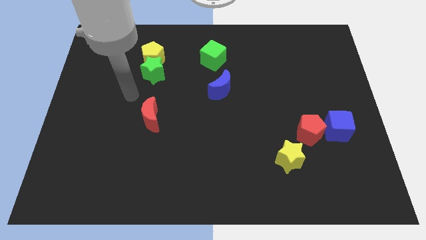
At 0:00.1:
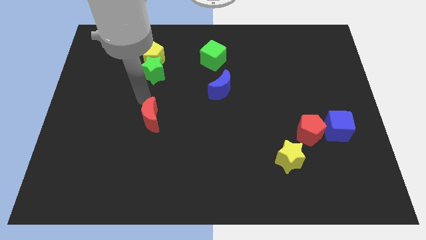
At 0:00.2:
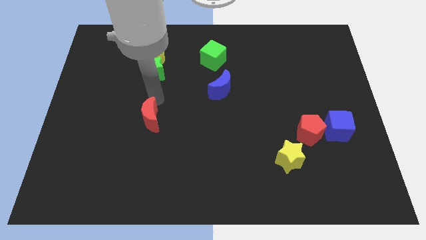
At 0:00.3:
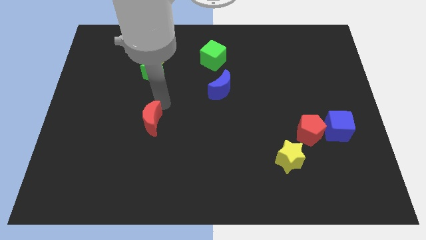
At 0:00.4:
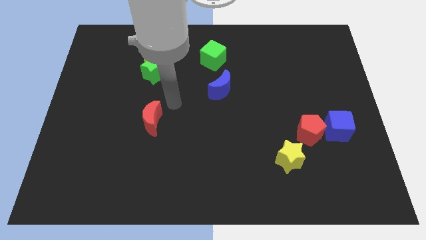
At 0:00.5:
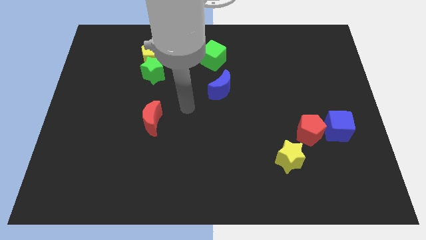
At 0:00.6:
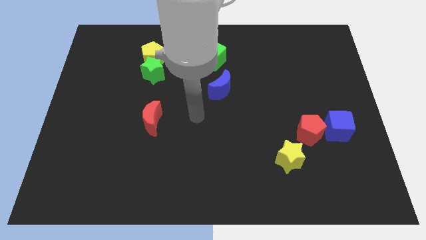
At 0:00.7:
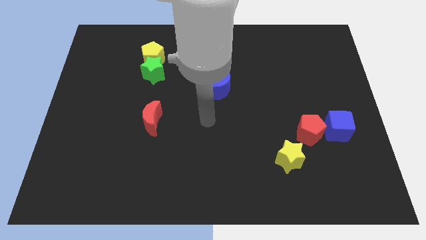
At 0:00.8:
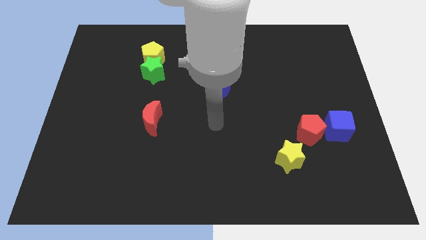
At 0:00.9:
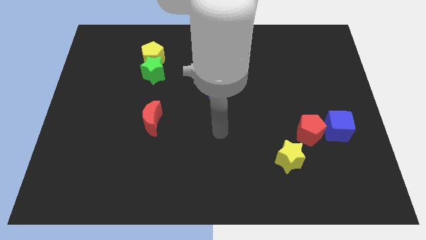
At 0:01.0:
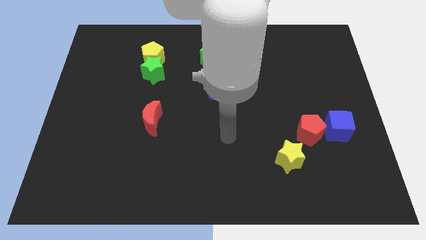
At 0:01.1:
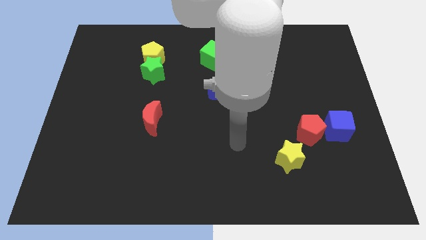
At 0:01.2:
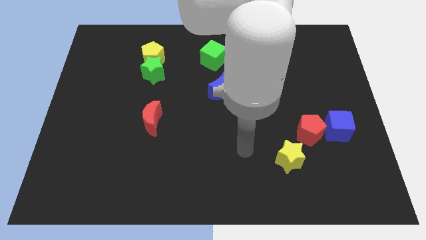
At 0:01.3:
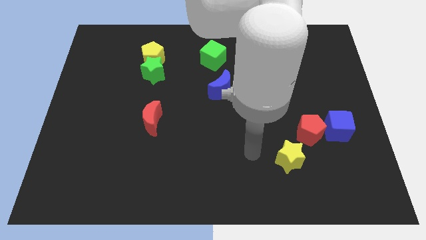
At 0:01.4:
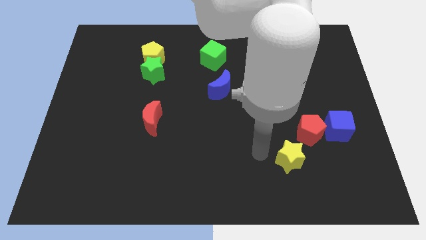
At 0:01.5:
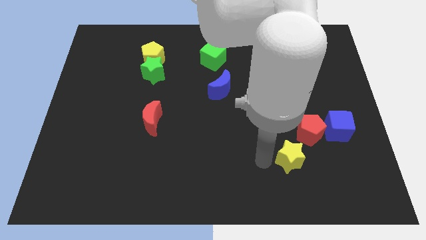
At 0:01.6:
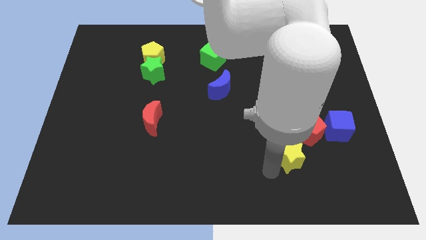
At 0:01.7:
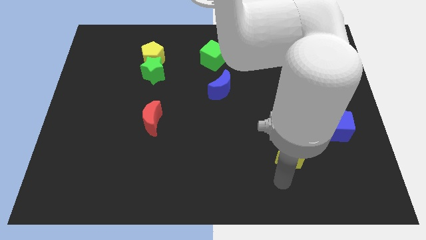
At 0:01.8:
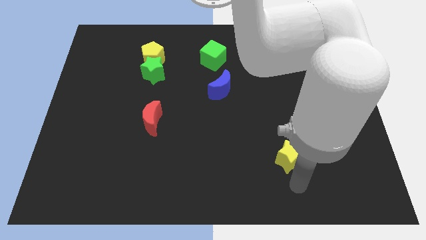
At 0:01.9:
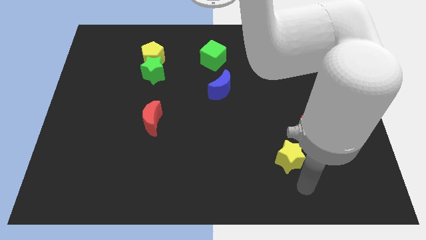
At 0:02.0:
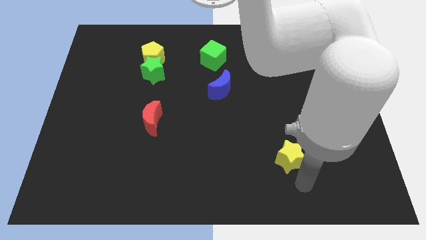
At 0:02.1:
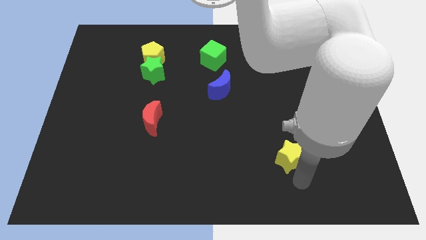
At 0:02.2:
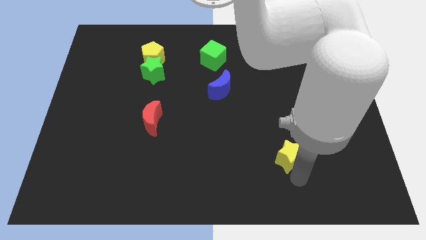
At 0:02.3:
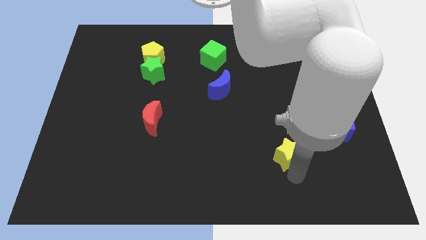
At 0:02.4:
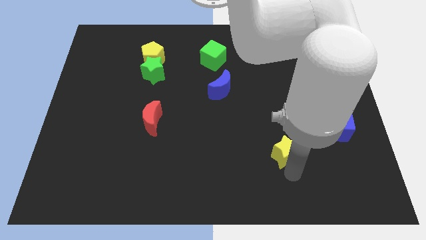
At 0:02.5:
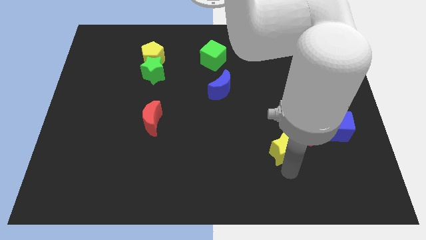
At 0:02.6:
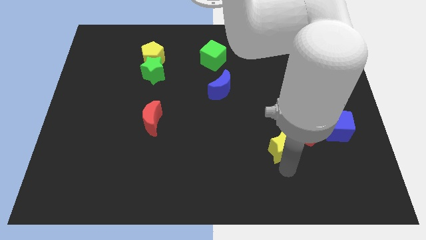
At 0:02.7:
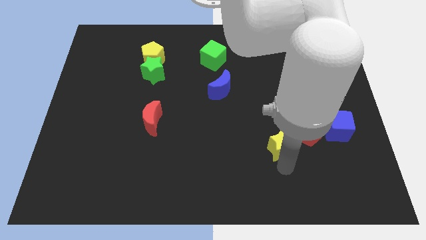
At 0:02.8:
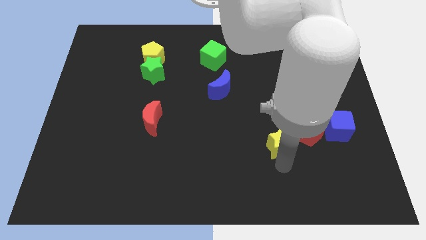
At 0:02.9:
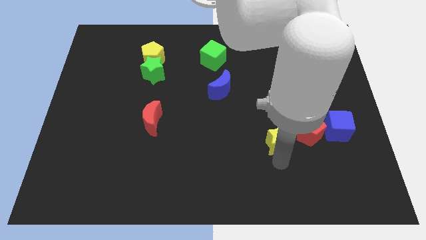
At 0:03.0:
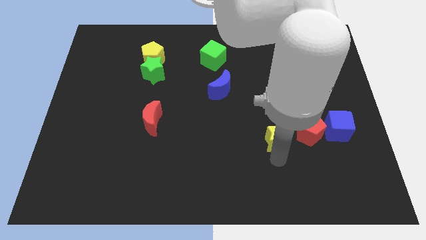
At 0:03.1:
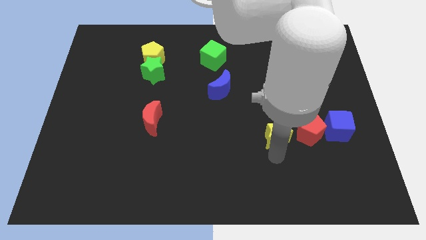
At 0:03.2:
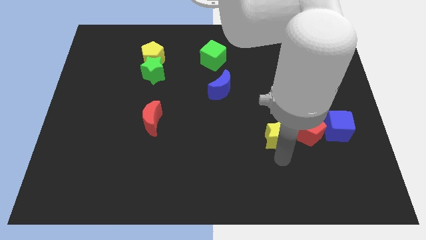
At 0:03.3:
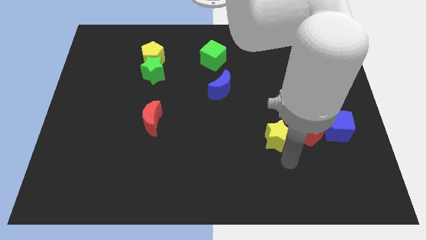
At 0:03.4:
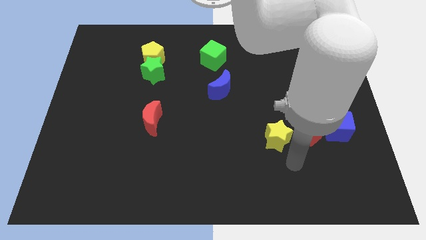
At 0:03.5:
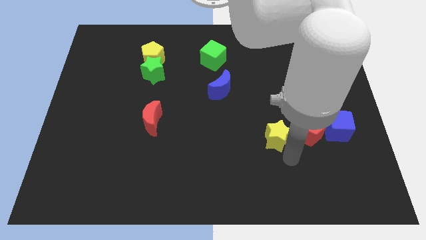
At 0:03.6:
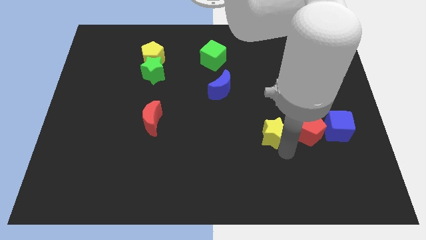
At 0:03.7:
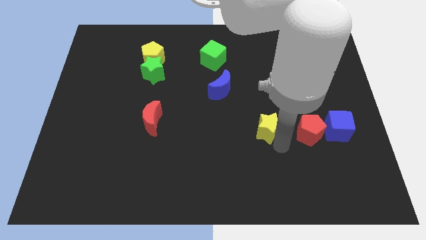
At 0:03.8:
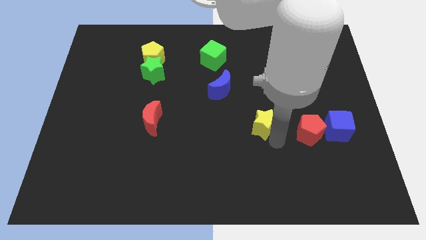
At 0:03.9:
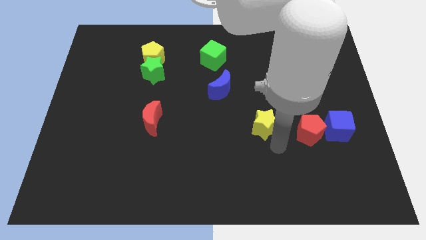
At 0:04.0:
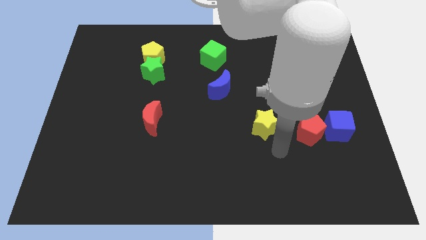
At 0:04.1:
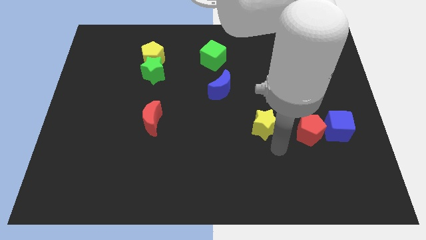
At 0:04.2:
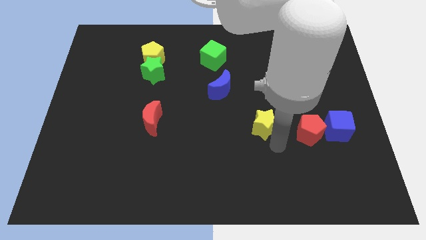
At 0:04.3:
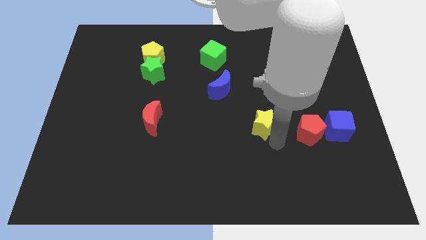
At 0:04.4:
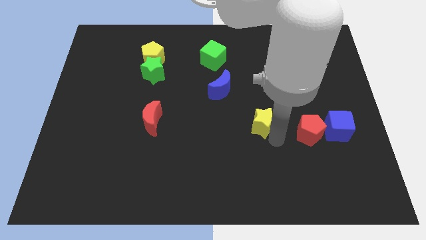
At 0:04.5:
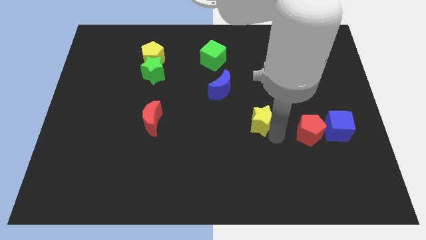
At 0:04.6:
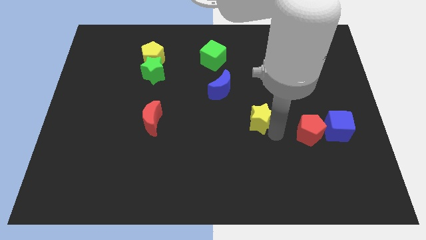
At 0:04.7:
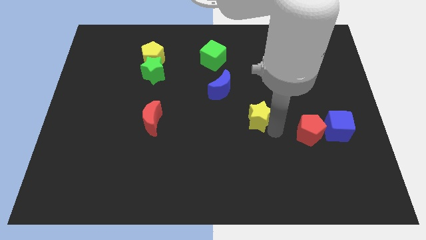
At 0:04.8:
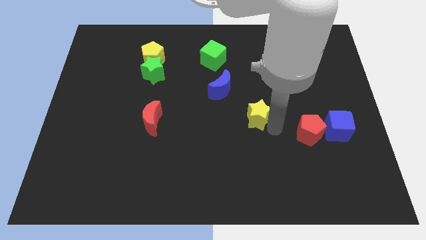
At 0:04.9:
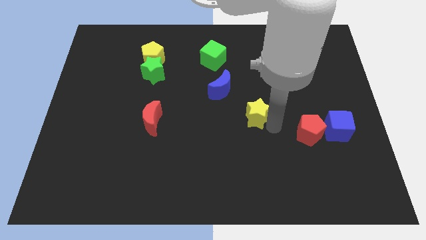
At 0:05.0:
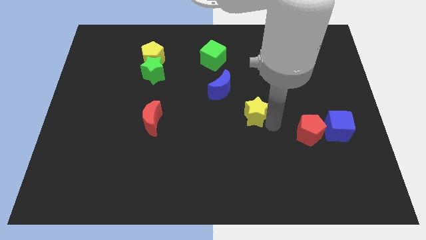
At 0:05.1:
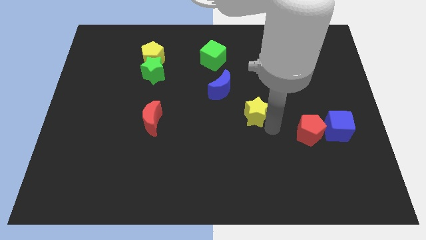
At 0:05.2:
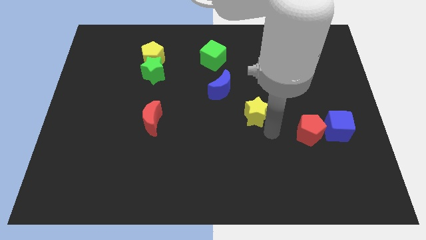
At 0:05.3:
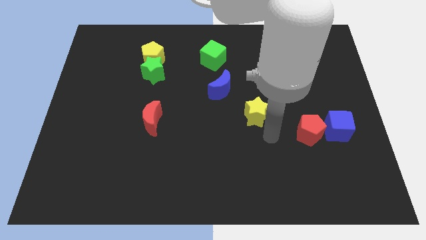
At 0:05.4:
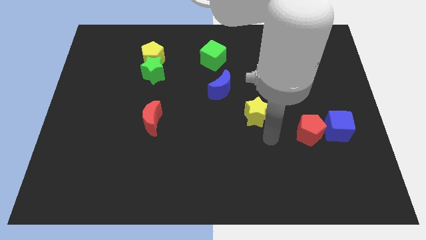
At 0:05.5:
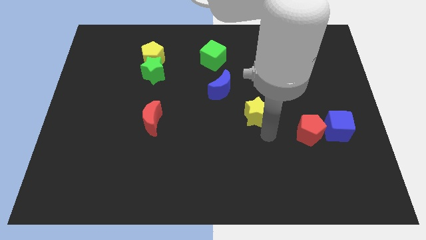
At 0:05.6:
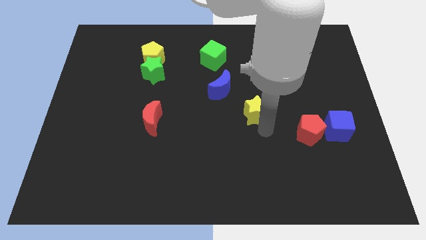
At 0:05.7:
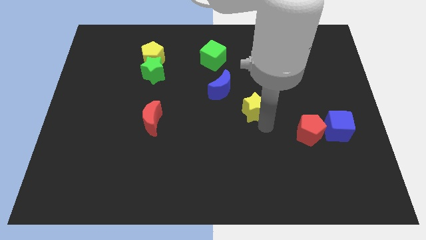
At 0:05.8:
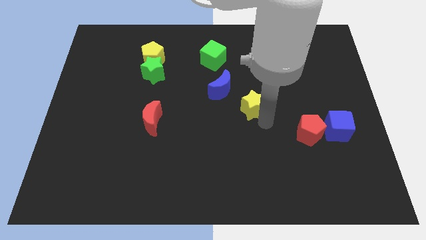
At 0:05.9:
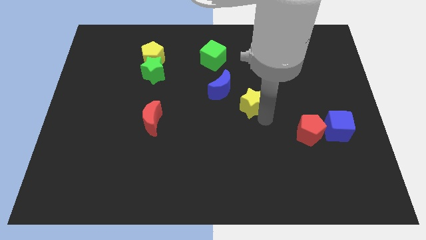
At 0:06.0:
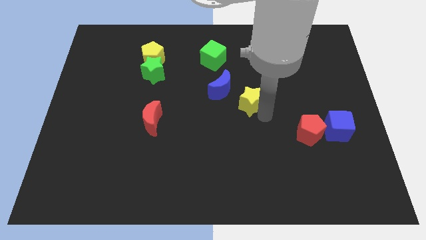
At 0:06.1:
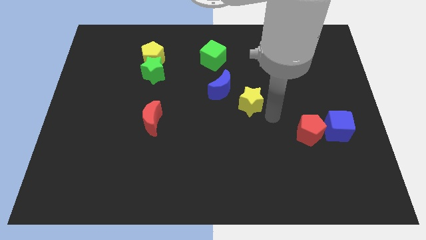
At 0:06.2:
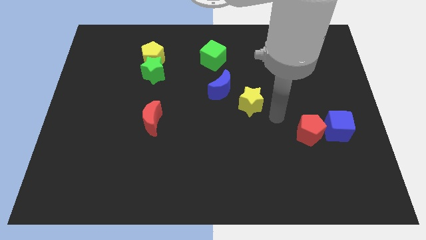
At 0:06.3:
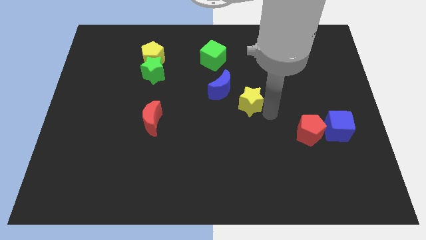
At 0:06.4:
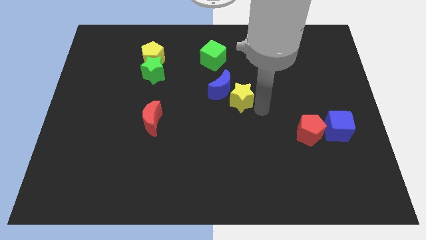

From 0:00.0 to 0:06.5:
move the yellow star close to the blue moon

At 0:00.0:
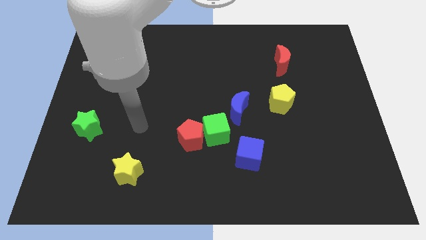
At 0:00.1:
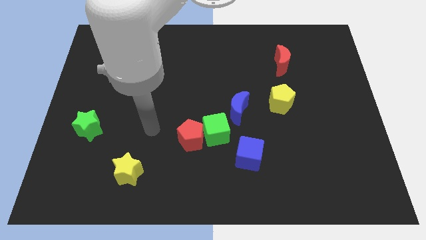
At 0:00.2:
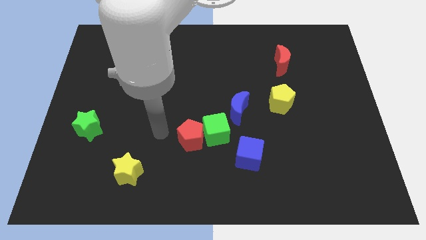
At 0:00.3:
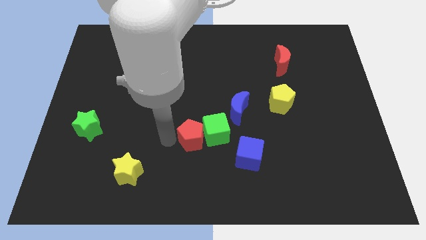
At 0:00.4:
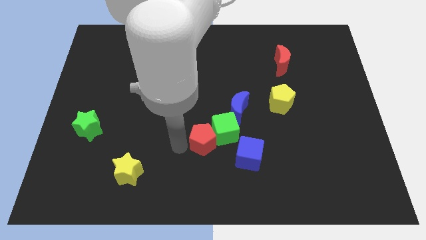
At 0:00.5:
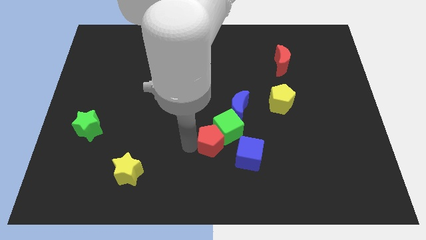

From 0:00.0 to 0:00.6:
move the green cube next to the blue moon
